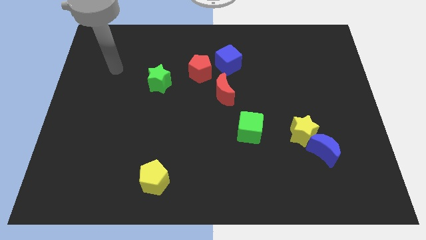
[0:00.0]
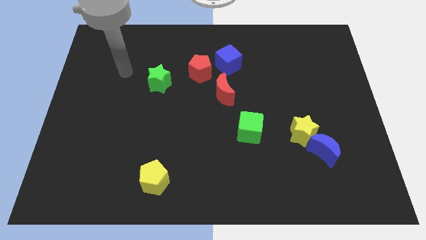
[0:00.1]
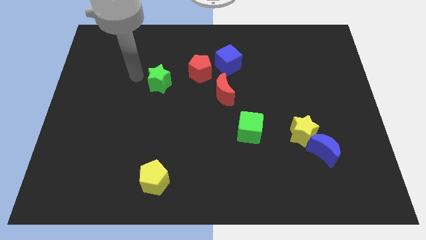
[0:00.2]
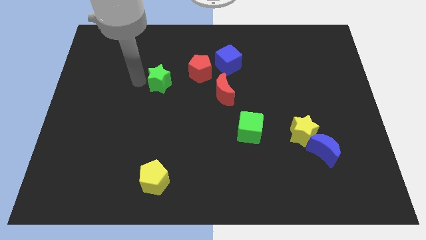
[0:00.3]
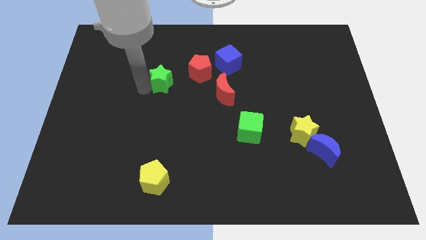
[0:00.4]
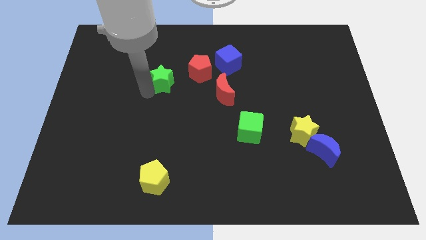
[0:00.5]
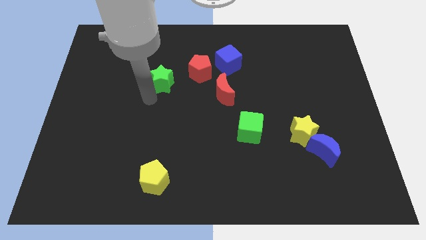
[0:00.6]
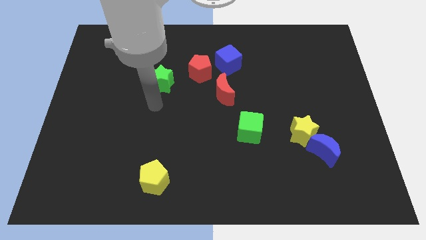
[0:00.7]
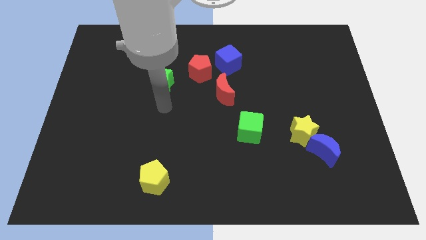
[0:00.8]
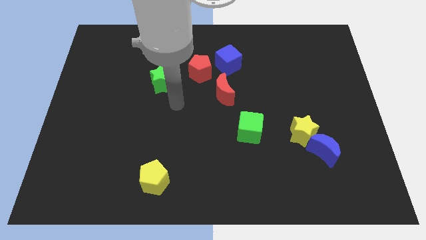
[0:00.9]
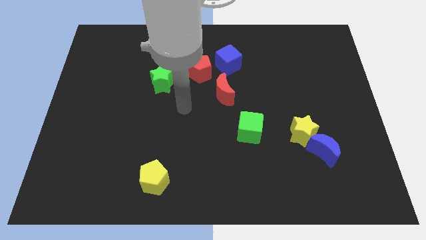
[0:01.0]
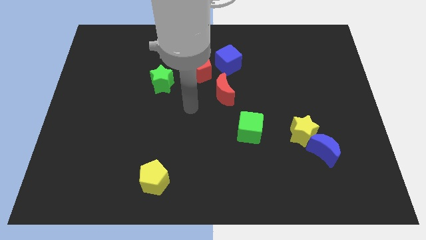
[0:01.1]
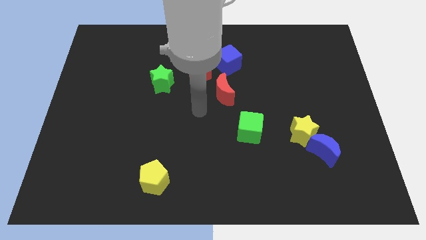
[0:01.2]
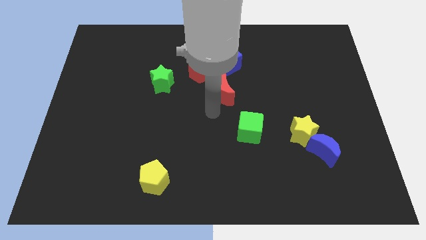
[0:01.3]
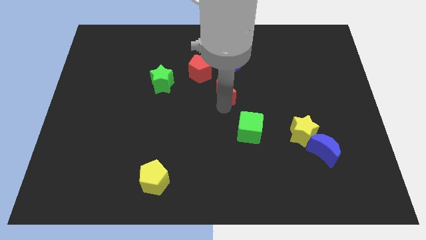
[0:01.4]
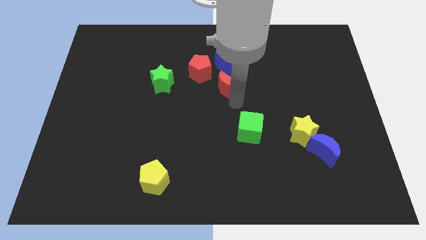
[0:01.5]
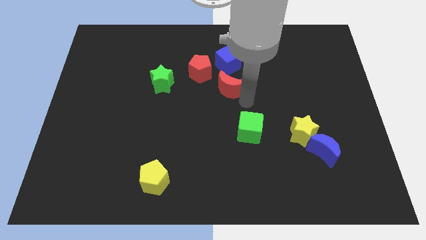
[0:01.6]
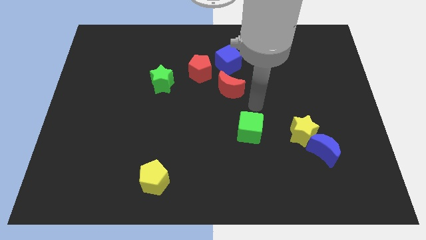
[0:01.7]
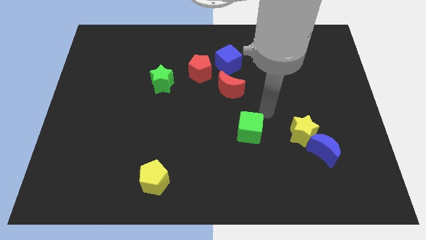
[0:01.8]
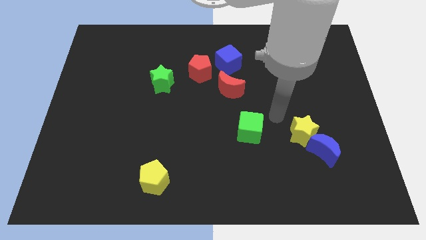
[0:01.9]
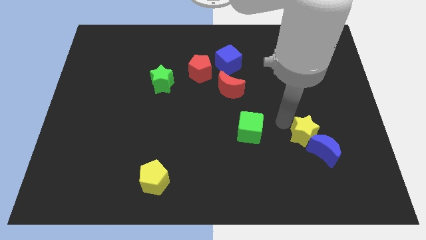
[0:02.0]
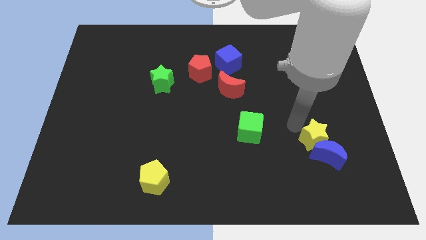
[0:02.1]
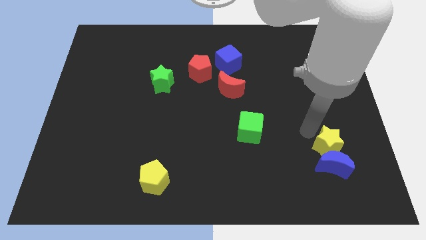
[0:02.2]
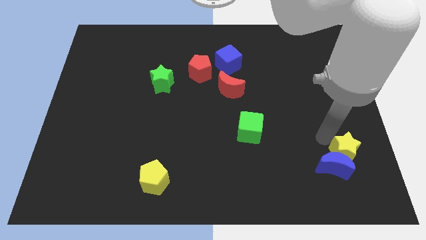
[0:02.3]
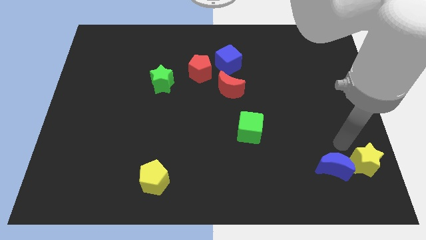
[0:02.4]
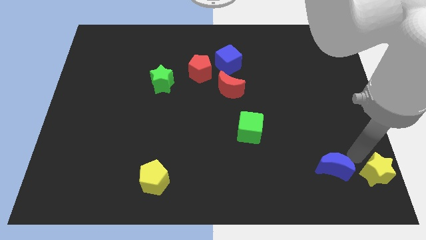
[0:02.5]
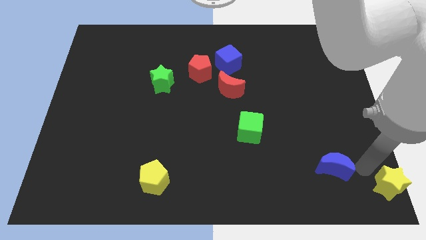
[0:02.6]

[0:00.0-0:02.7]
move the blue moon away from the yellow star

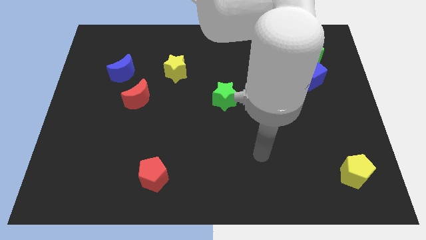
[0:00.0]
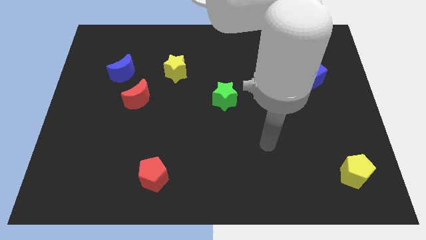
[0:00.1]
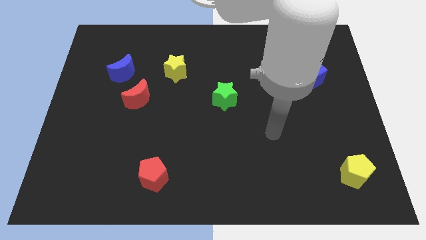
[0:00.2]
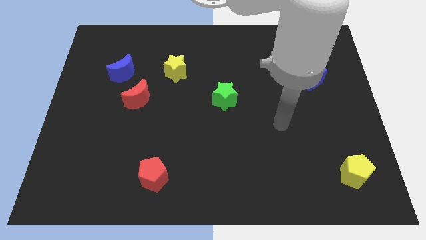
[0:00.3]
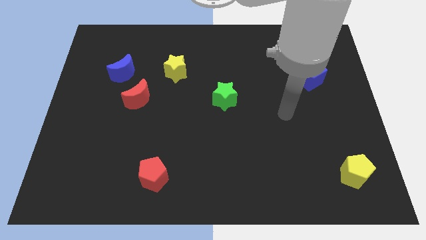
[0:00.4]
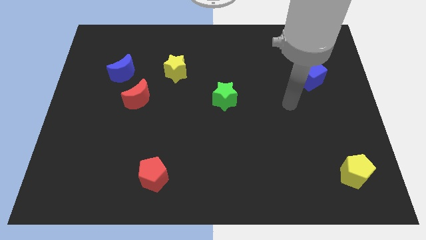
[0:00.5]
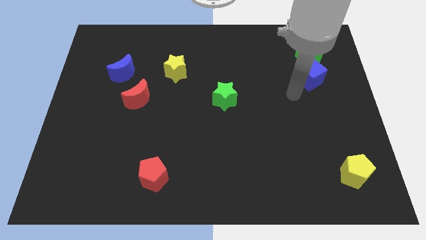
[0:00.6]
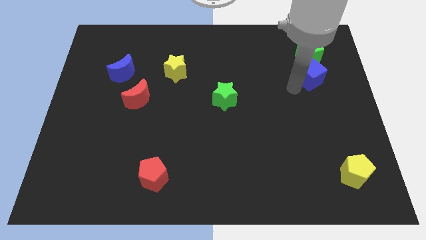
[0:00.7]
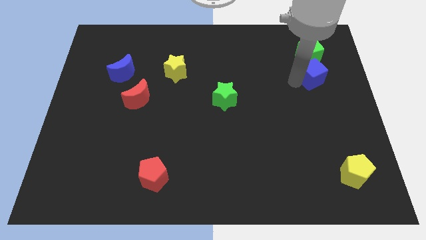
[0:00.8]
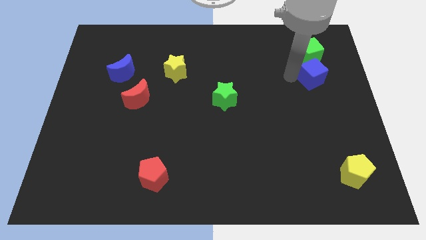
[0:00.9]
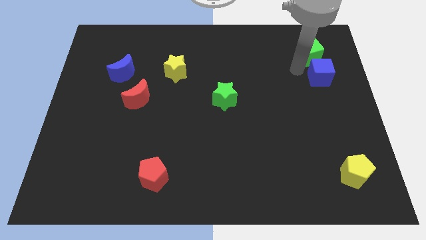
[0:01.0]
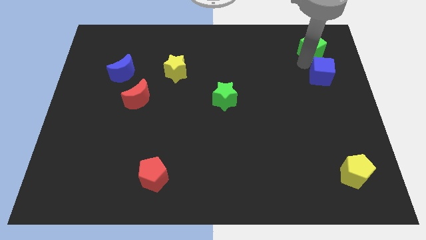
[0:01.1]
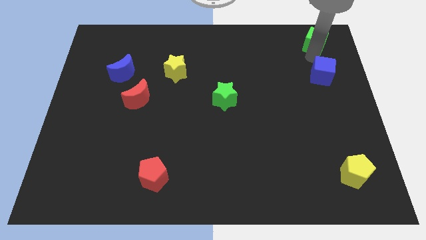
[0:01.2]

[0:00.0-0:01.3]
move the blue cube away from the green cube

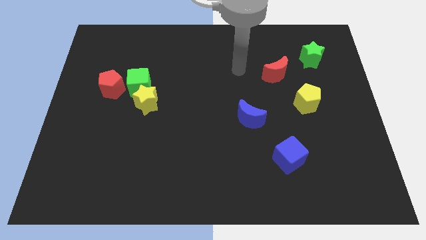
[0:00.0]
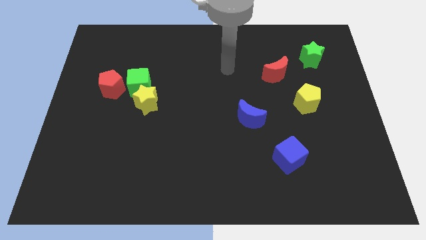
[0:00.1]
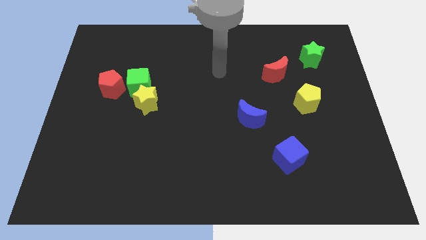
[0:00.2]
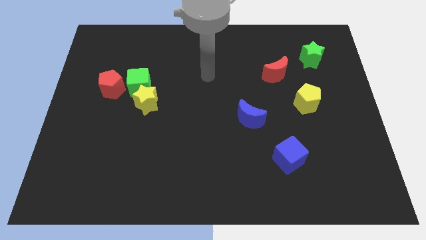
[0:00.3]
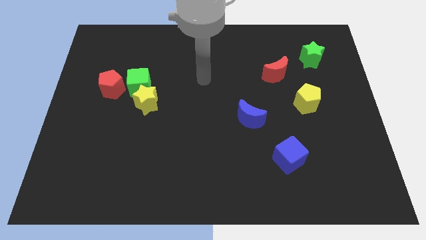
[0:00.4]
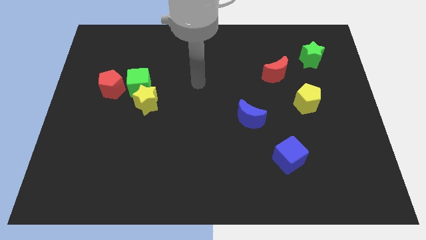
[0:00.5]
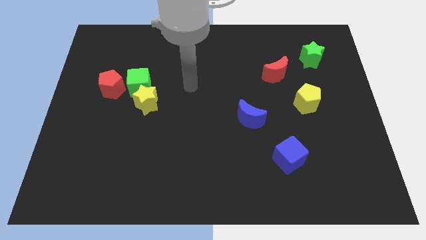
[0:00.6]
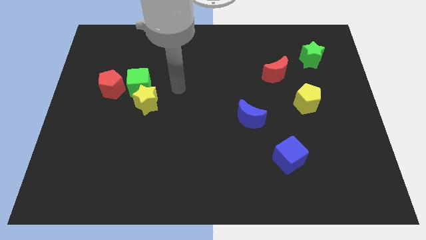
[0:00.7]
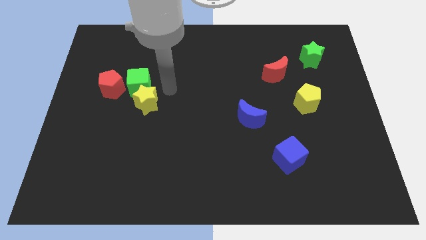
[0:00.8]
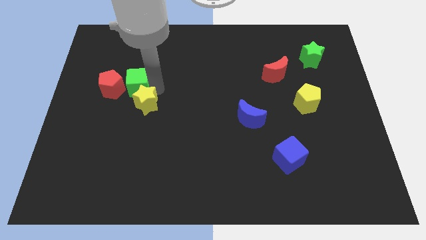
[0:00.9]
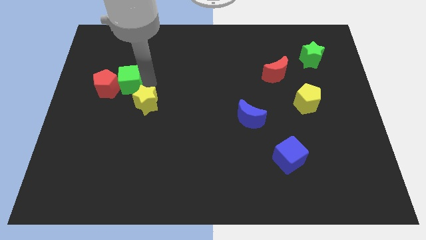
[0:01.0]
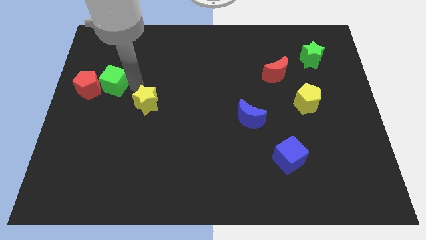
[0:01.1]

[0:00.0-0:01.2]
move the yellow star away from the green cube

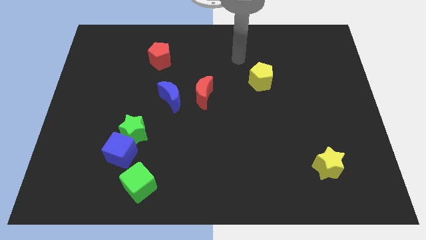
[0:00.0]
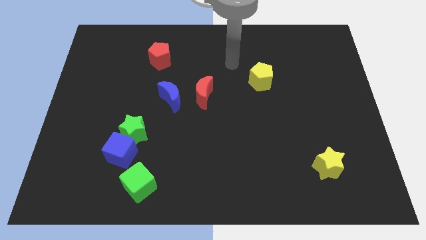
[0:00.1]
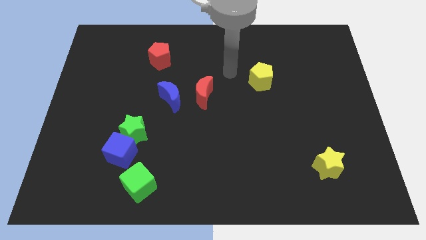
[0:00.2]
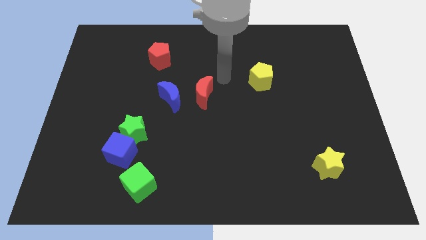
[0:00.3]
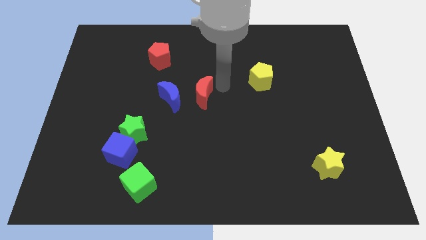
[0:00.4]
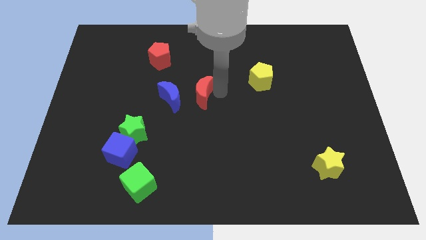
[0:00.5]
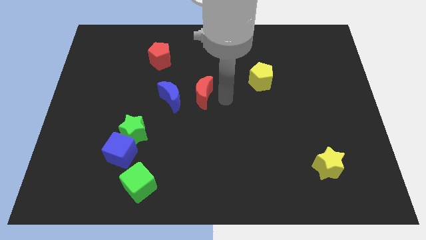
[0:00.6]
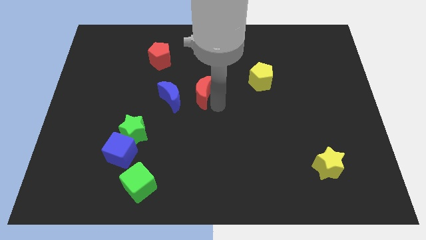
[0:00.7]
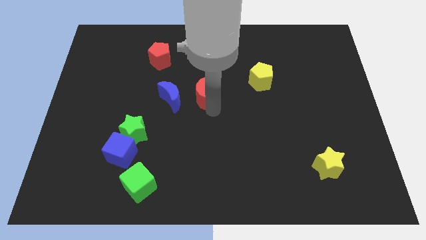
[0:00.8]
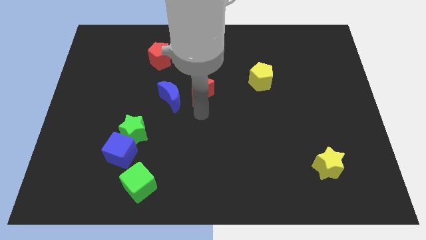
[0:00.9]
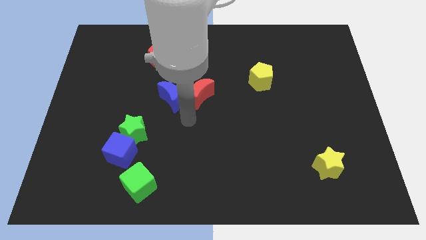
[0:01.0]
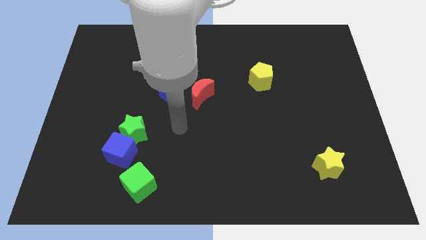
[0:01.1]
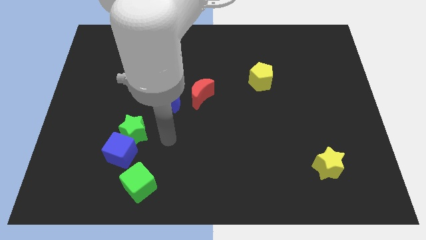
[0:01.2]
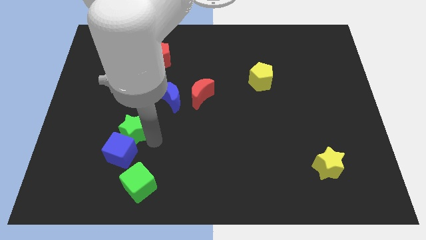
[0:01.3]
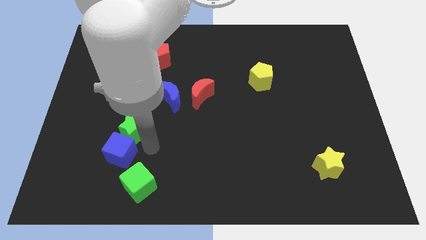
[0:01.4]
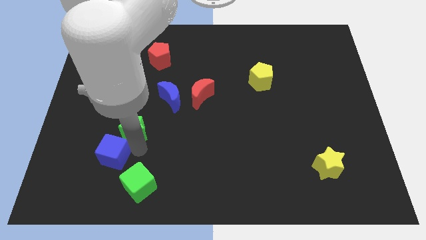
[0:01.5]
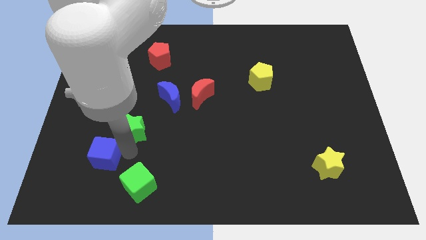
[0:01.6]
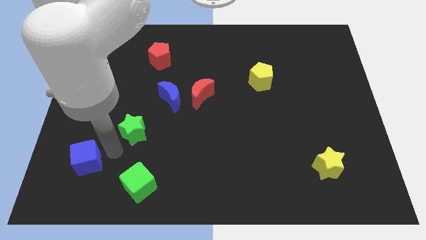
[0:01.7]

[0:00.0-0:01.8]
pull the green star apart from the blue cube

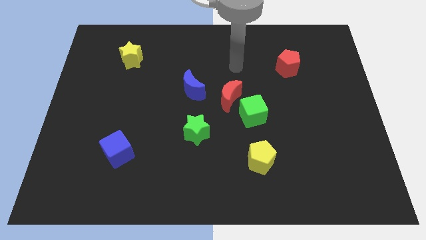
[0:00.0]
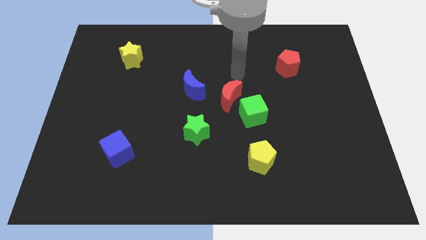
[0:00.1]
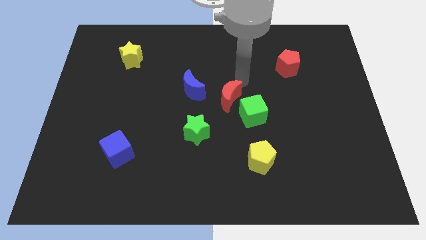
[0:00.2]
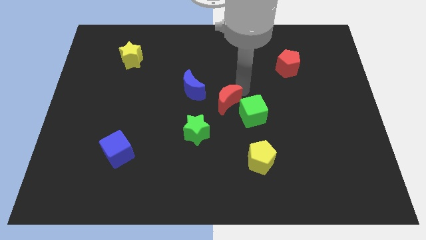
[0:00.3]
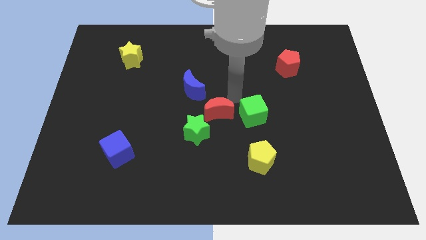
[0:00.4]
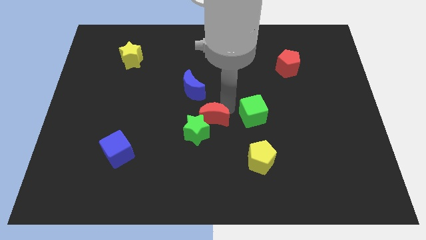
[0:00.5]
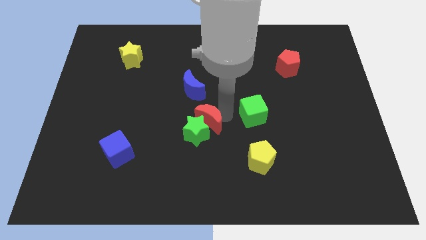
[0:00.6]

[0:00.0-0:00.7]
separate the green cube from the red moon

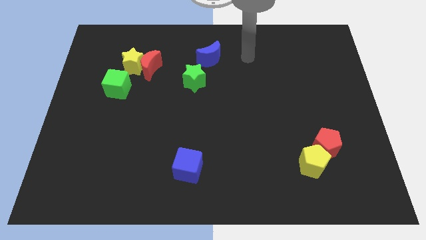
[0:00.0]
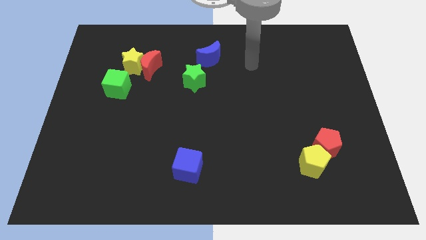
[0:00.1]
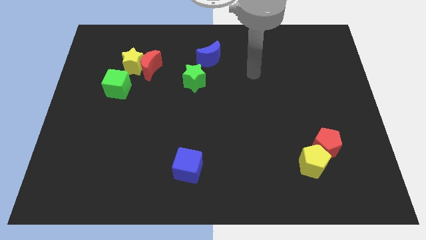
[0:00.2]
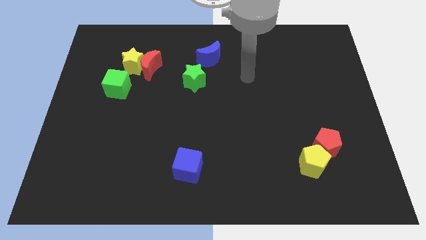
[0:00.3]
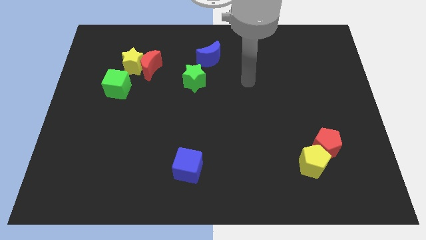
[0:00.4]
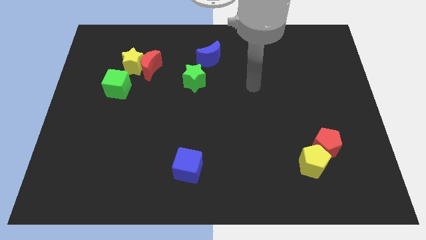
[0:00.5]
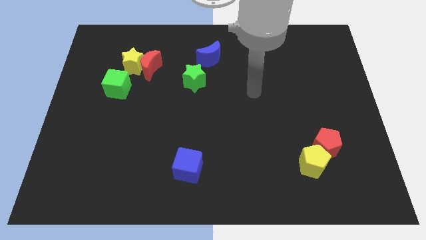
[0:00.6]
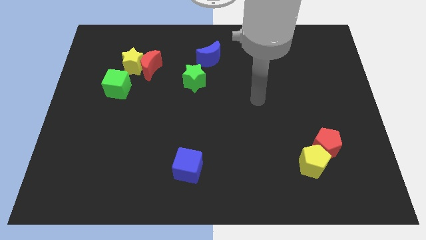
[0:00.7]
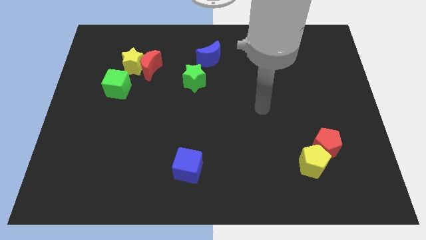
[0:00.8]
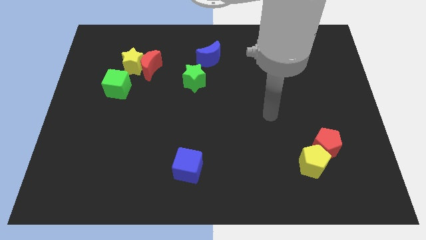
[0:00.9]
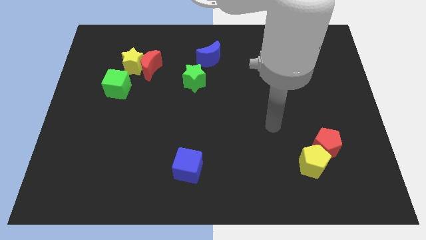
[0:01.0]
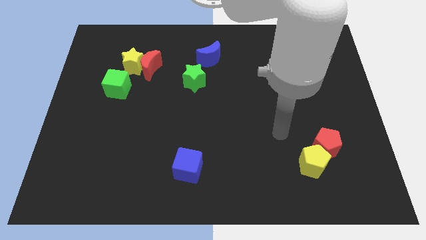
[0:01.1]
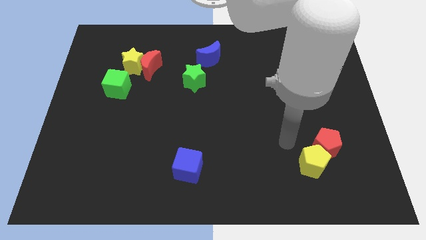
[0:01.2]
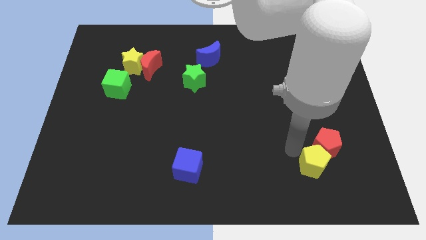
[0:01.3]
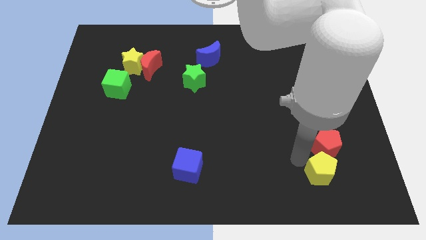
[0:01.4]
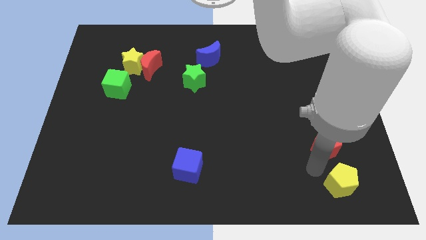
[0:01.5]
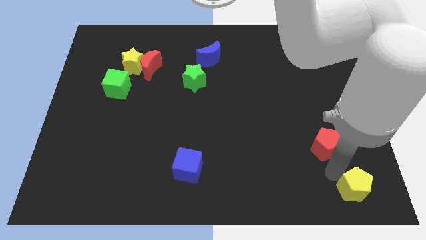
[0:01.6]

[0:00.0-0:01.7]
move the red pentagon away from the yellow pentagon
